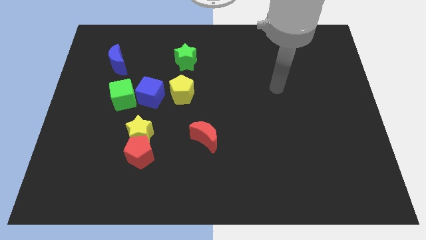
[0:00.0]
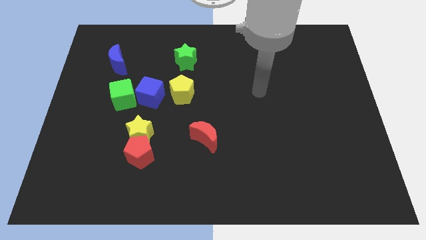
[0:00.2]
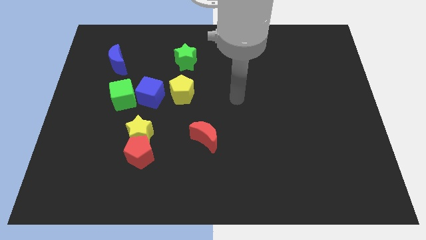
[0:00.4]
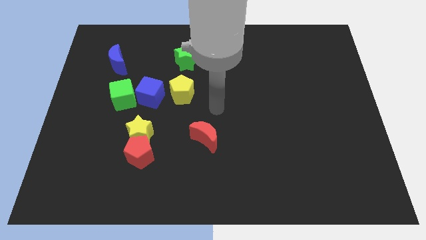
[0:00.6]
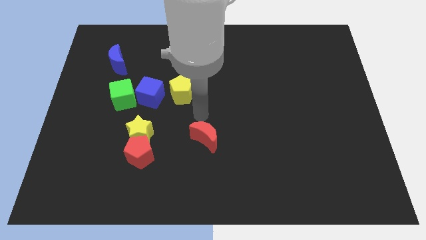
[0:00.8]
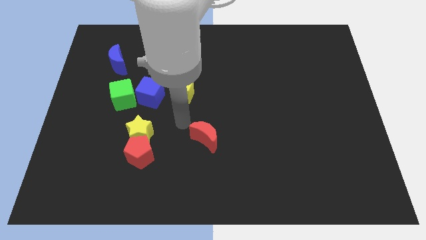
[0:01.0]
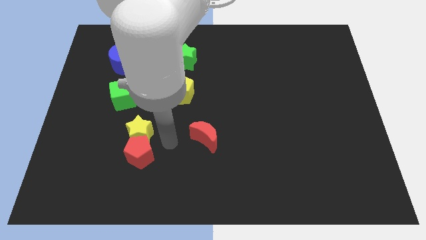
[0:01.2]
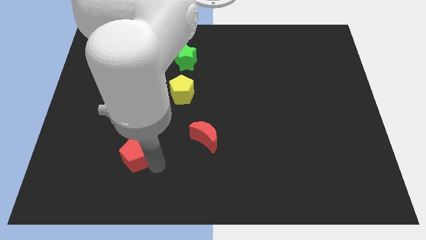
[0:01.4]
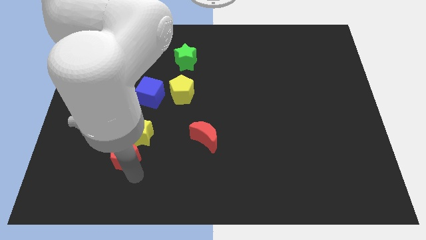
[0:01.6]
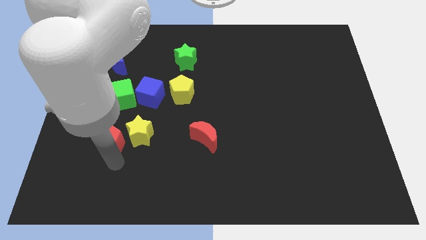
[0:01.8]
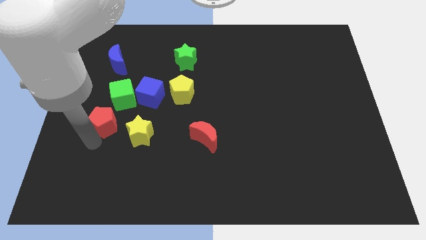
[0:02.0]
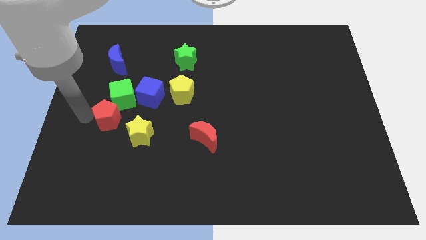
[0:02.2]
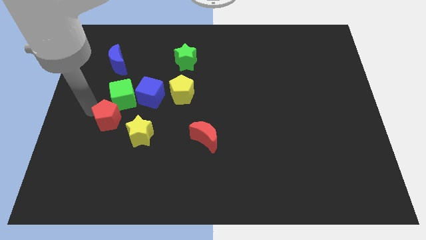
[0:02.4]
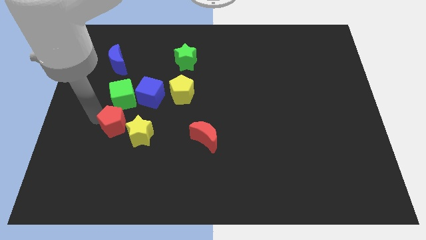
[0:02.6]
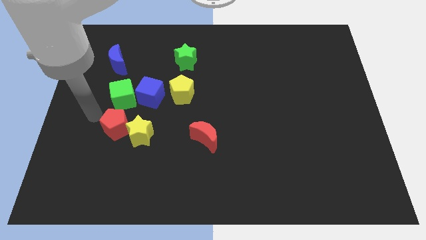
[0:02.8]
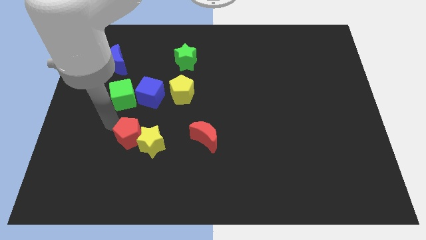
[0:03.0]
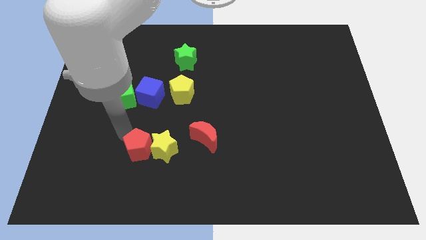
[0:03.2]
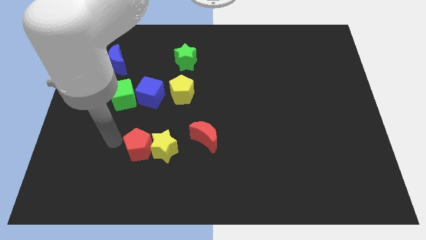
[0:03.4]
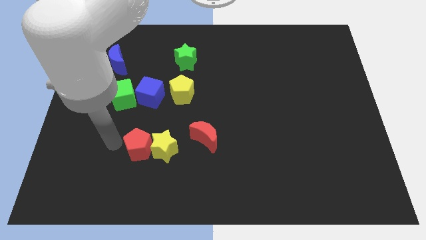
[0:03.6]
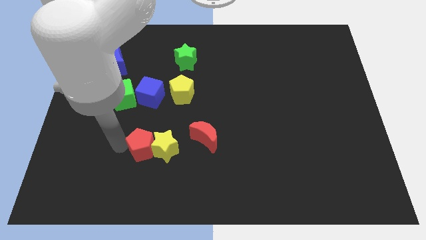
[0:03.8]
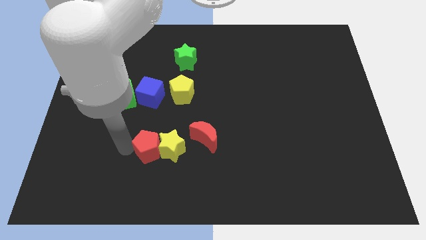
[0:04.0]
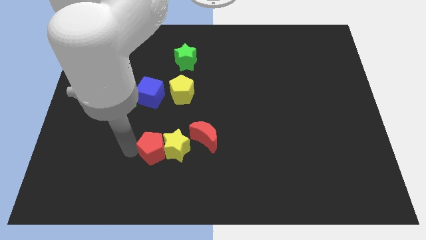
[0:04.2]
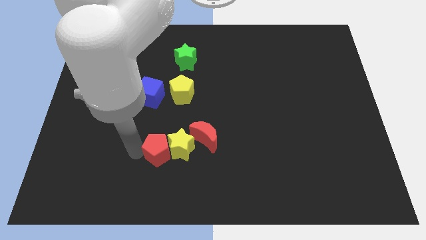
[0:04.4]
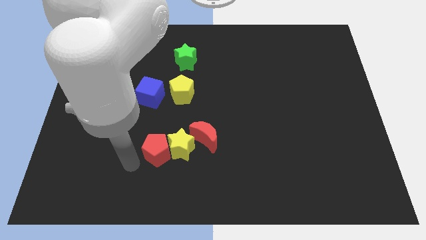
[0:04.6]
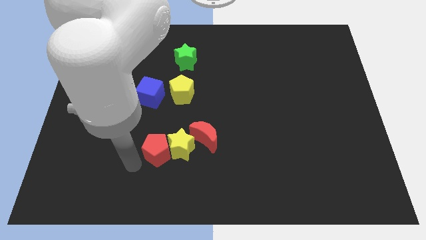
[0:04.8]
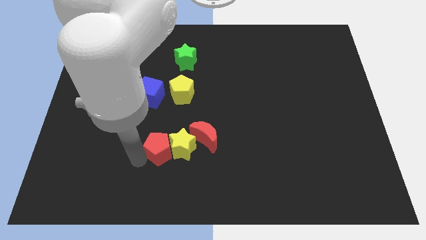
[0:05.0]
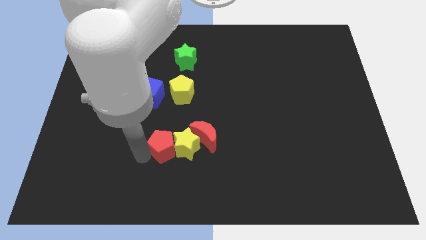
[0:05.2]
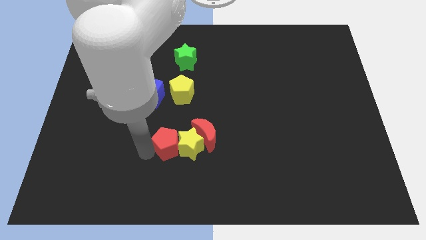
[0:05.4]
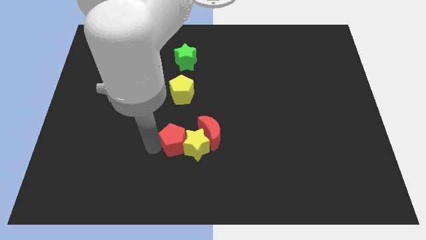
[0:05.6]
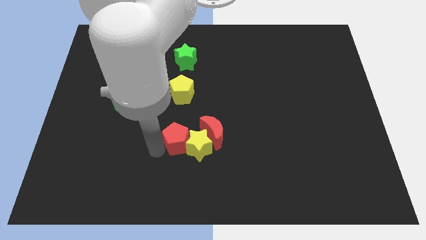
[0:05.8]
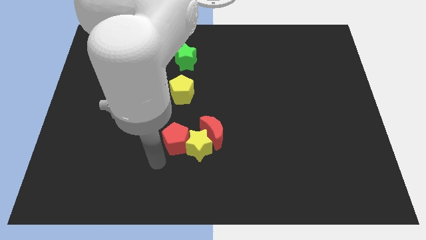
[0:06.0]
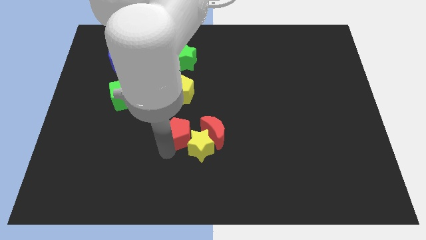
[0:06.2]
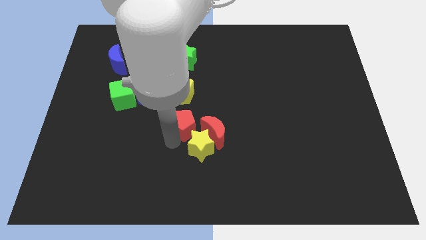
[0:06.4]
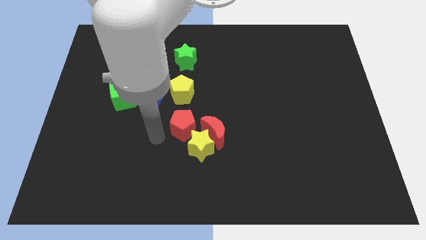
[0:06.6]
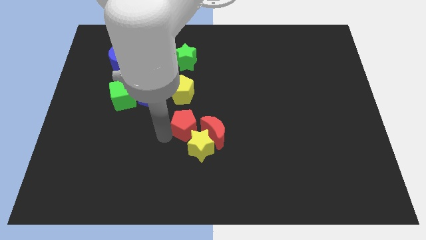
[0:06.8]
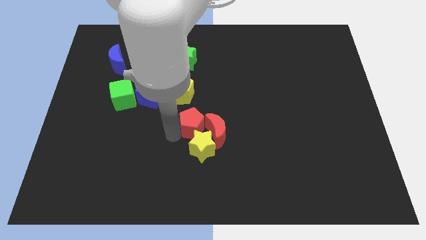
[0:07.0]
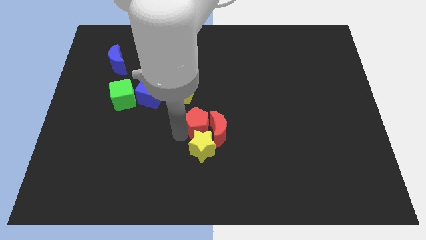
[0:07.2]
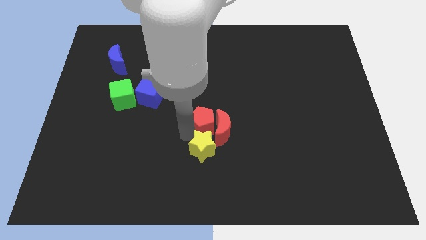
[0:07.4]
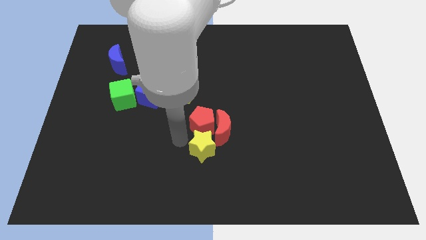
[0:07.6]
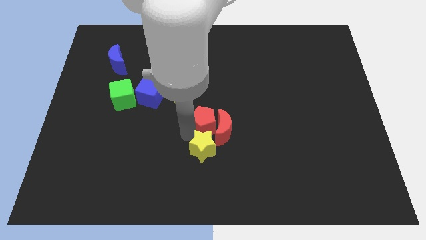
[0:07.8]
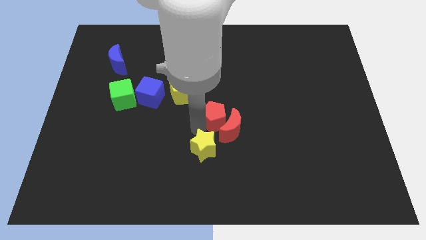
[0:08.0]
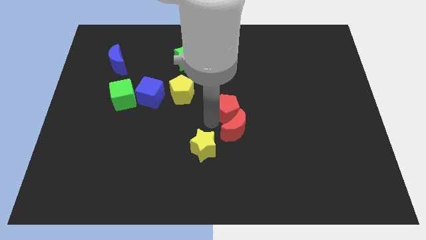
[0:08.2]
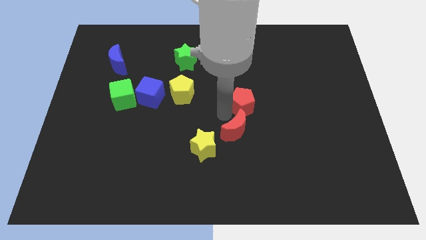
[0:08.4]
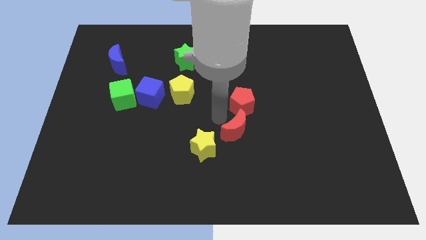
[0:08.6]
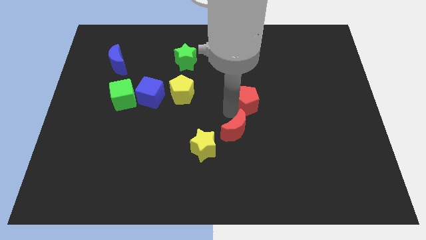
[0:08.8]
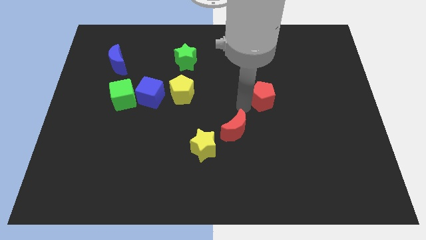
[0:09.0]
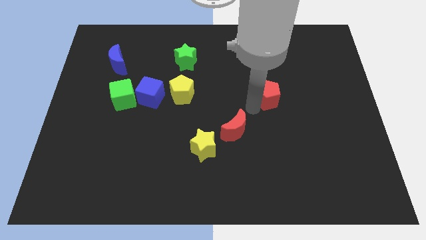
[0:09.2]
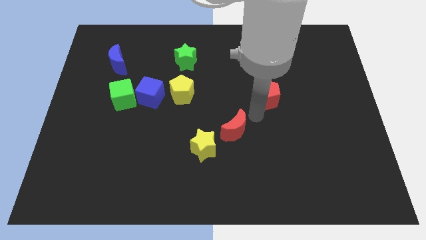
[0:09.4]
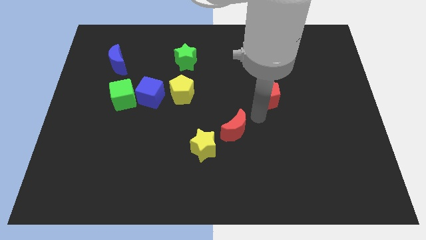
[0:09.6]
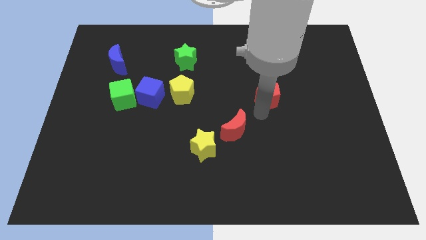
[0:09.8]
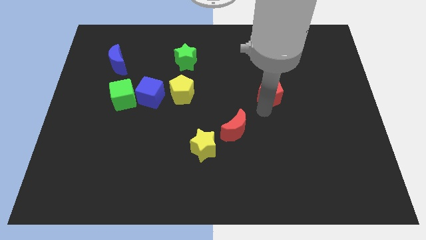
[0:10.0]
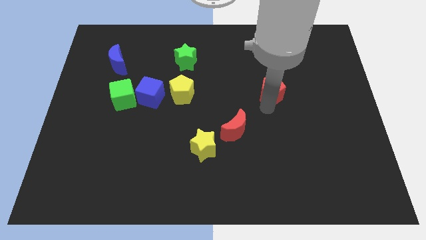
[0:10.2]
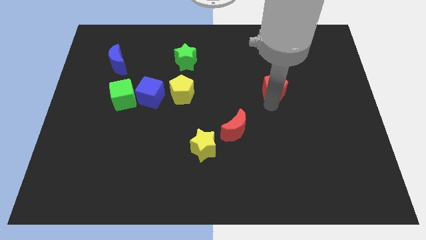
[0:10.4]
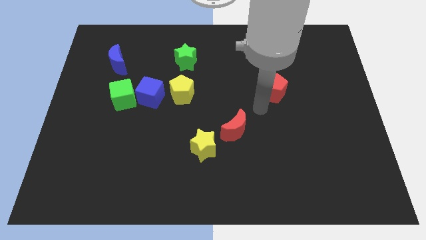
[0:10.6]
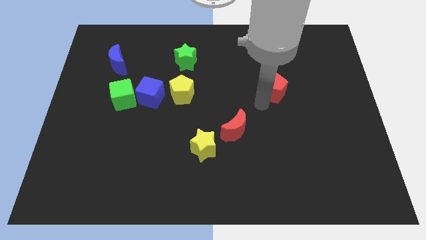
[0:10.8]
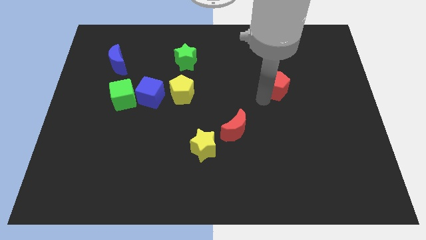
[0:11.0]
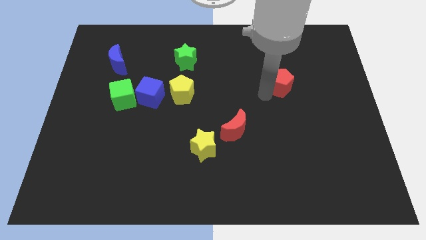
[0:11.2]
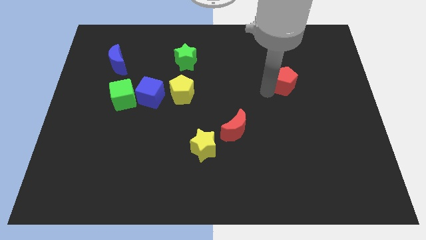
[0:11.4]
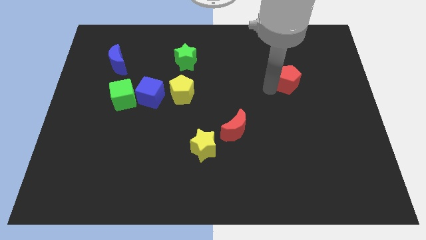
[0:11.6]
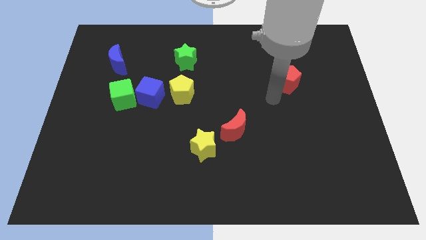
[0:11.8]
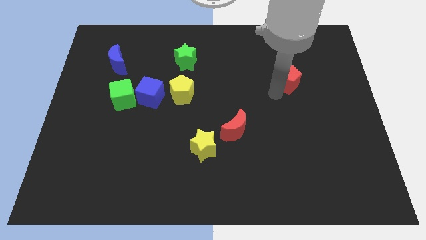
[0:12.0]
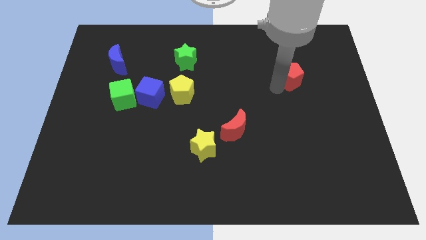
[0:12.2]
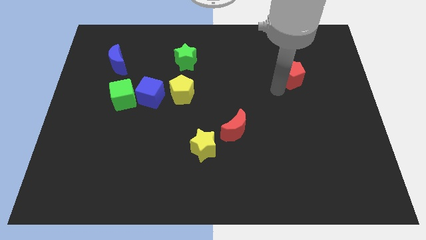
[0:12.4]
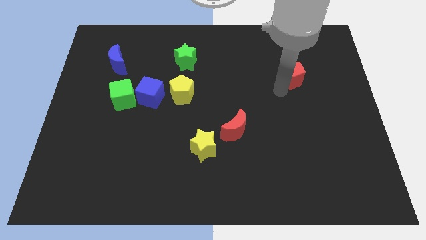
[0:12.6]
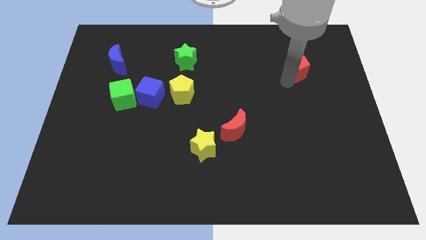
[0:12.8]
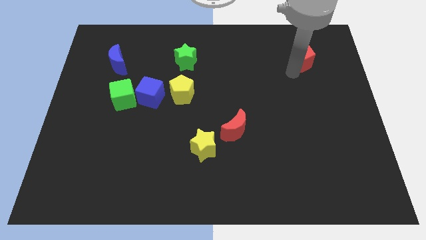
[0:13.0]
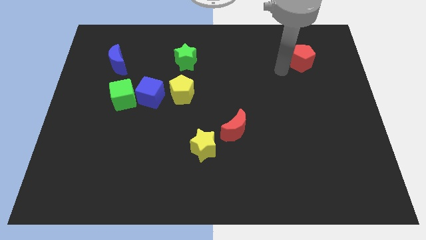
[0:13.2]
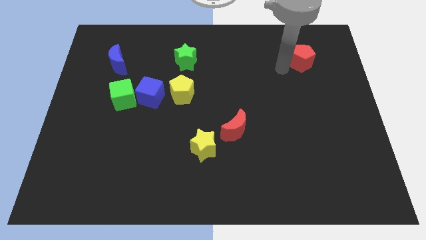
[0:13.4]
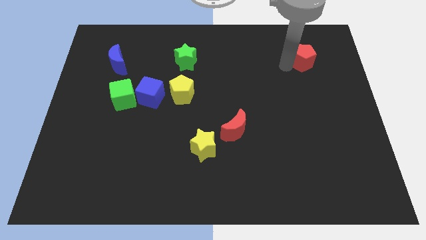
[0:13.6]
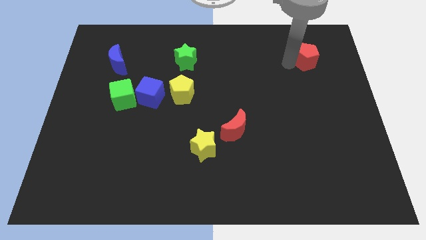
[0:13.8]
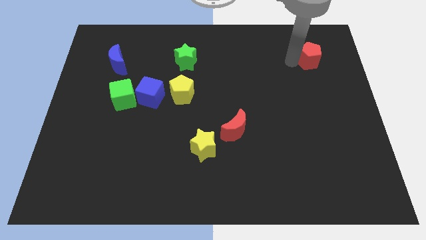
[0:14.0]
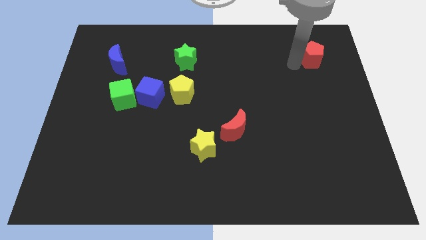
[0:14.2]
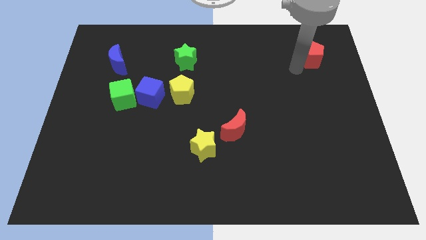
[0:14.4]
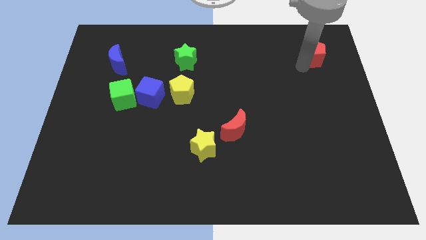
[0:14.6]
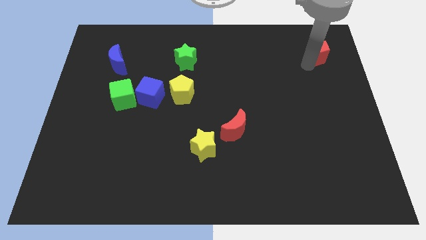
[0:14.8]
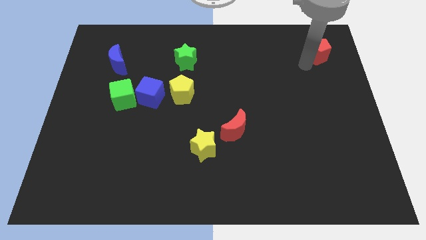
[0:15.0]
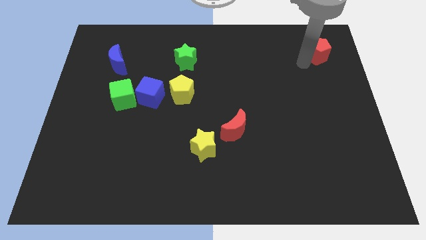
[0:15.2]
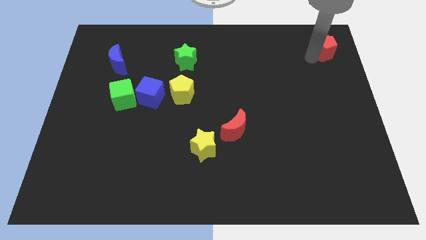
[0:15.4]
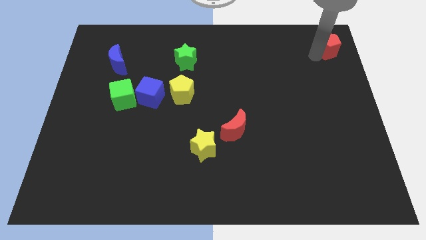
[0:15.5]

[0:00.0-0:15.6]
move the red pentagon to the top right of the board
